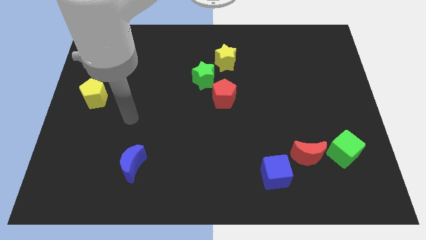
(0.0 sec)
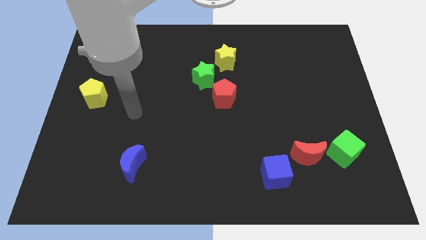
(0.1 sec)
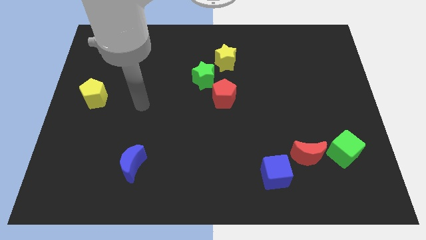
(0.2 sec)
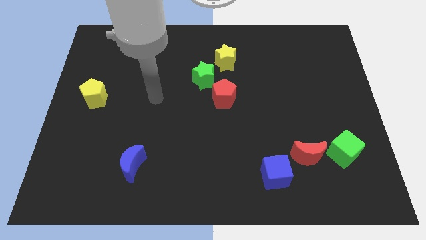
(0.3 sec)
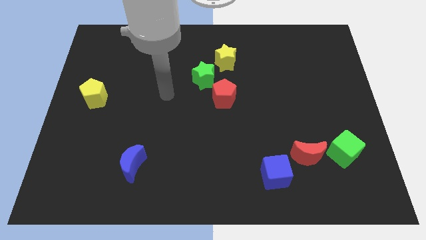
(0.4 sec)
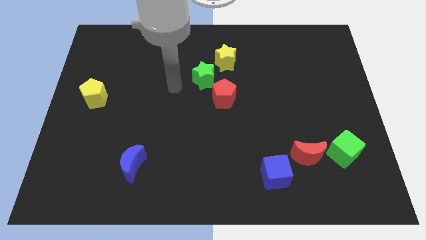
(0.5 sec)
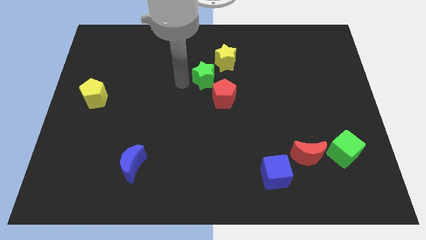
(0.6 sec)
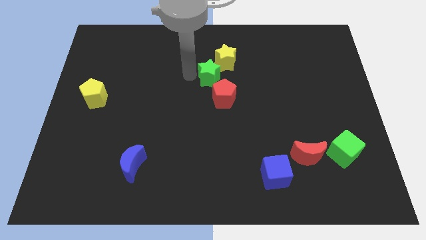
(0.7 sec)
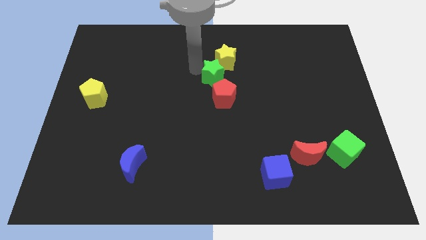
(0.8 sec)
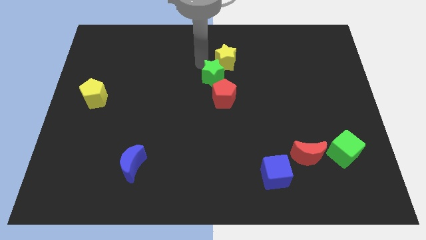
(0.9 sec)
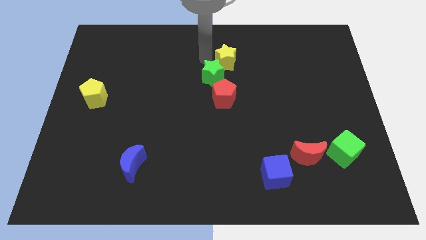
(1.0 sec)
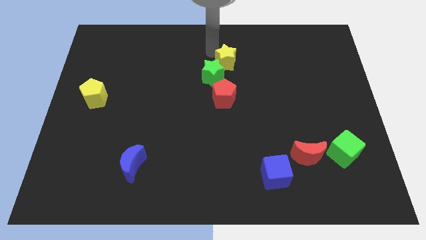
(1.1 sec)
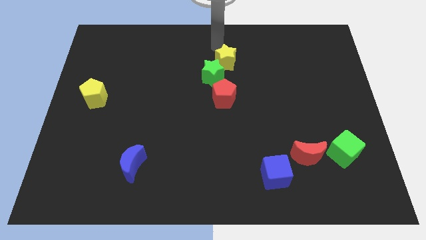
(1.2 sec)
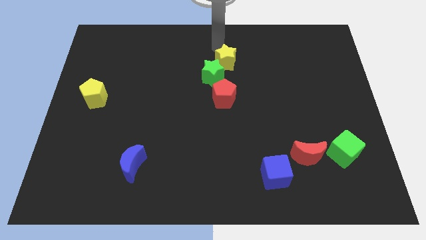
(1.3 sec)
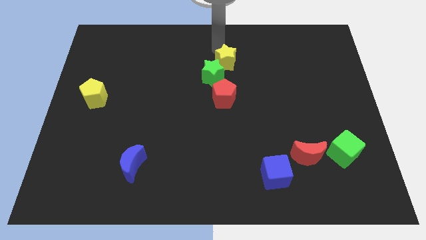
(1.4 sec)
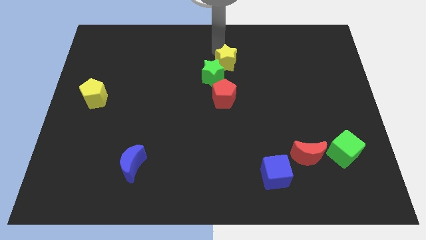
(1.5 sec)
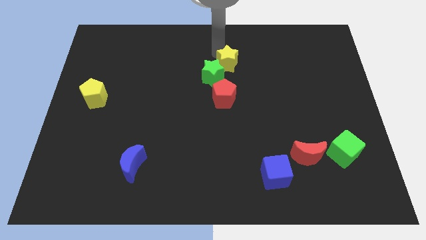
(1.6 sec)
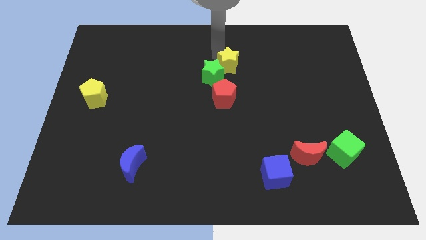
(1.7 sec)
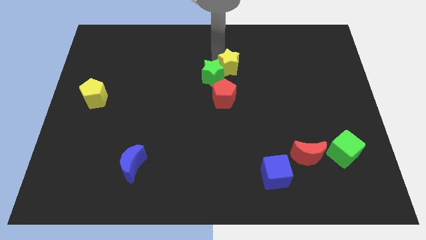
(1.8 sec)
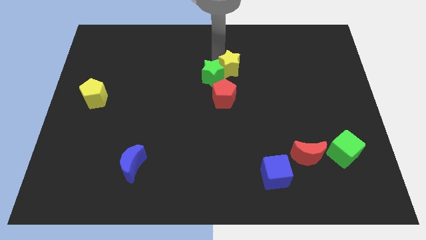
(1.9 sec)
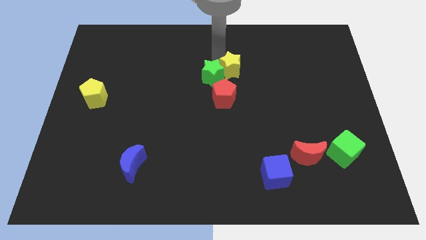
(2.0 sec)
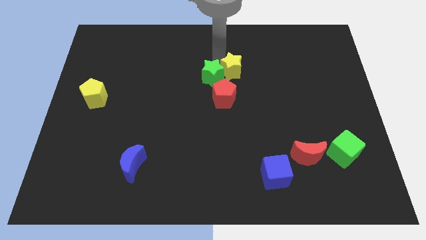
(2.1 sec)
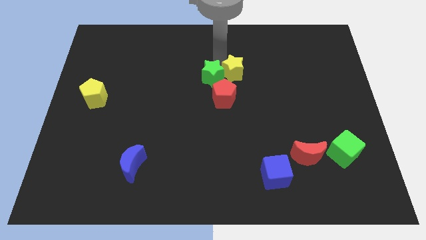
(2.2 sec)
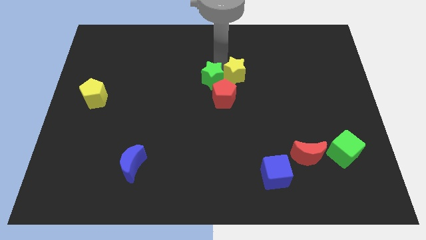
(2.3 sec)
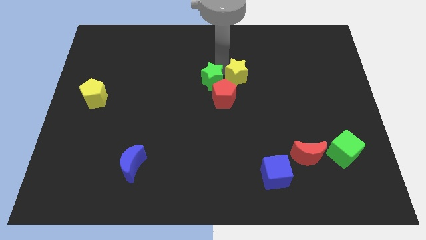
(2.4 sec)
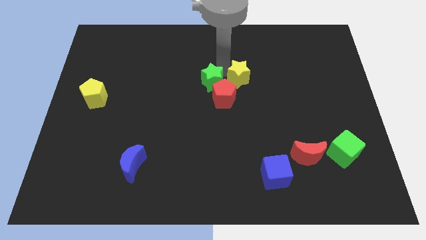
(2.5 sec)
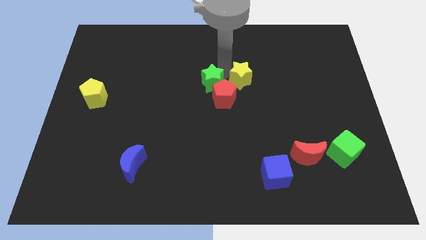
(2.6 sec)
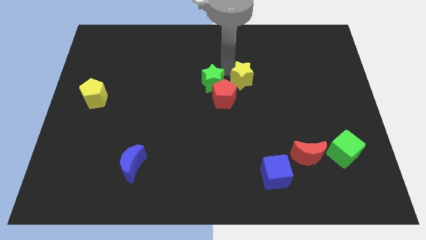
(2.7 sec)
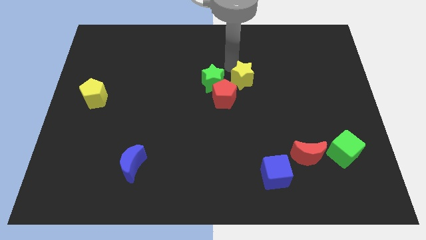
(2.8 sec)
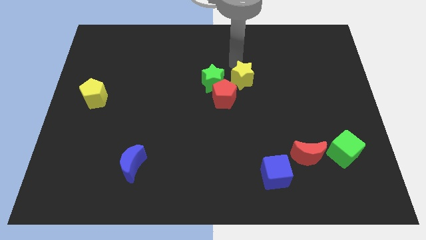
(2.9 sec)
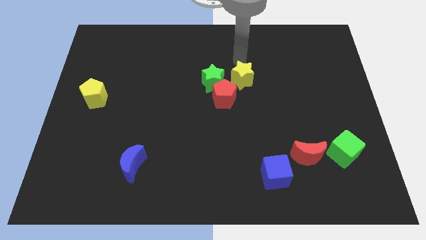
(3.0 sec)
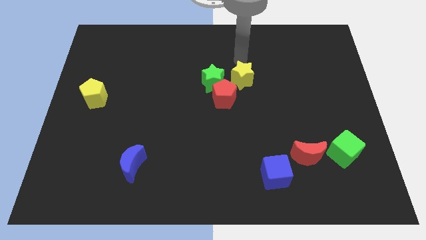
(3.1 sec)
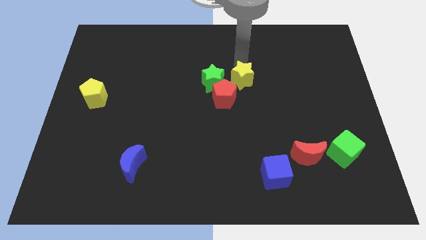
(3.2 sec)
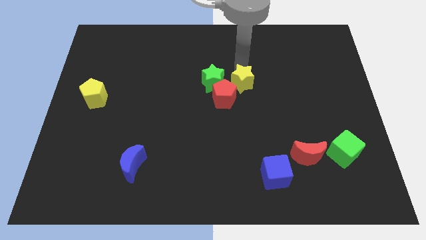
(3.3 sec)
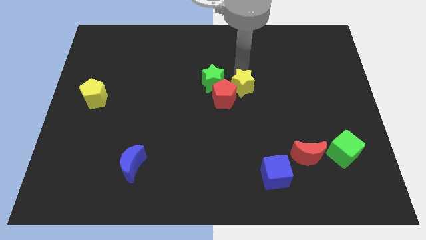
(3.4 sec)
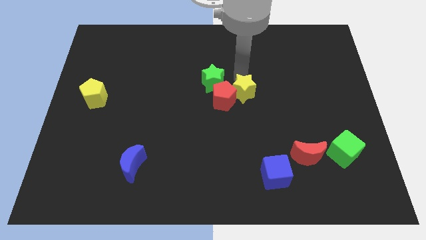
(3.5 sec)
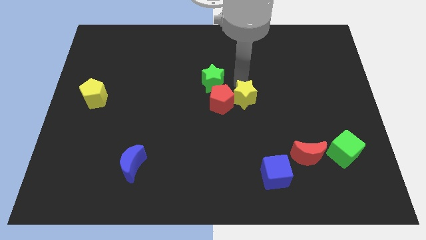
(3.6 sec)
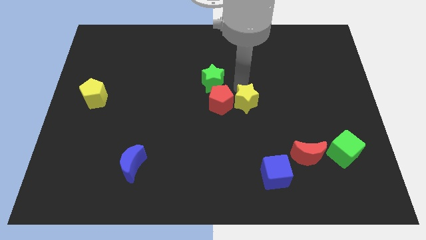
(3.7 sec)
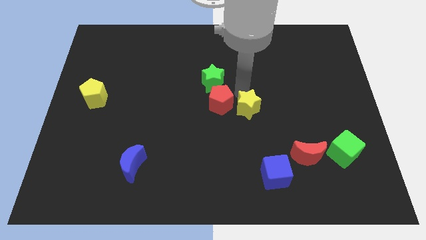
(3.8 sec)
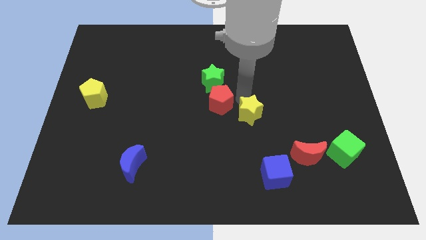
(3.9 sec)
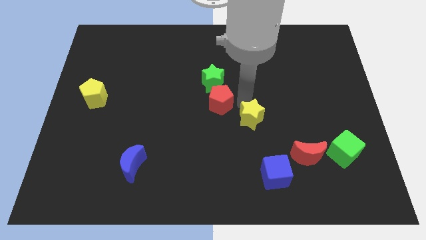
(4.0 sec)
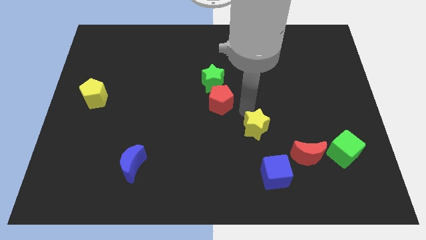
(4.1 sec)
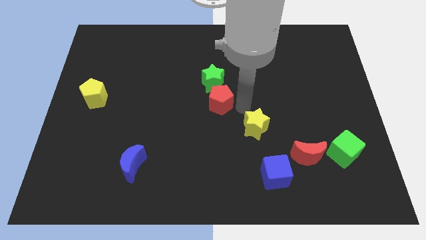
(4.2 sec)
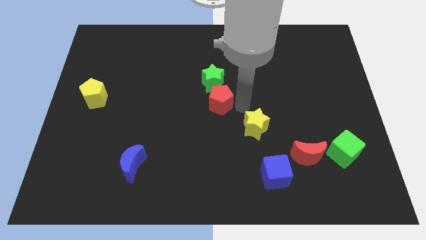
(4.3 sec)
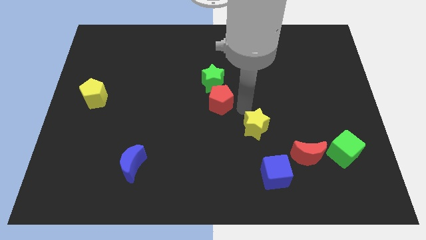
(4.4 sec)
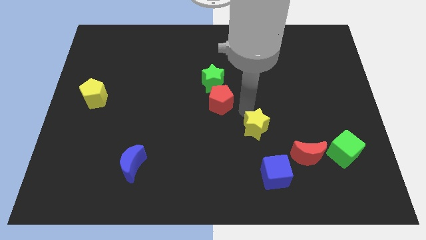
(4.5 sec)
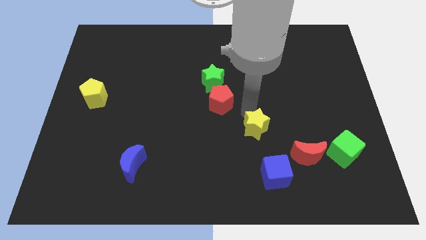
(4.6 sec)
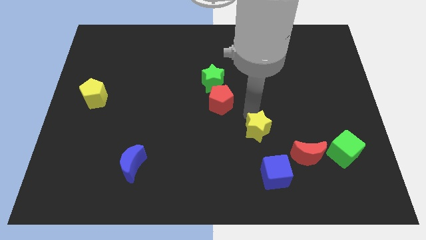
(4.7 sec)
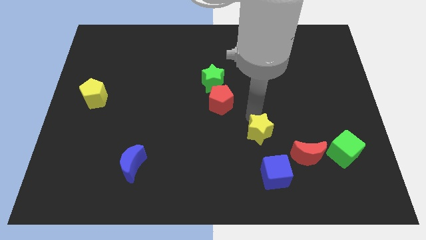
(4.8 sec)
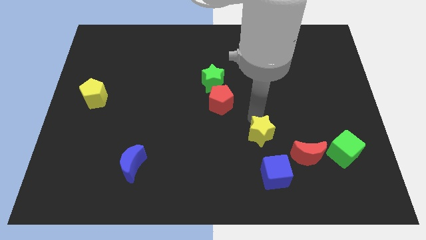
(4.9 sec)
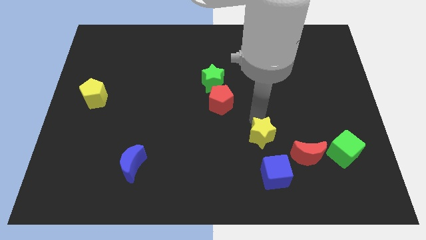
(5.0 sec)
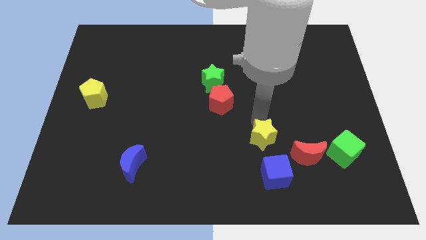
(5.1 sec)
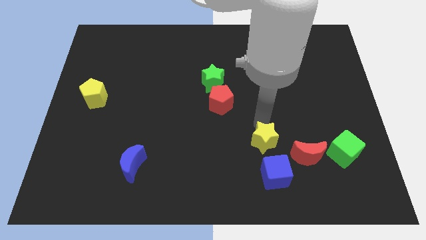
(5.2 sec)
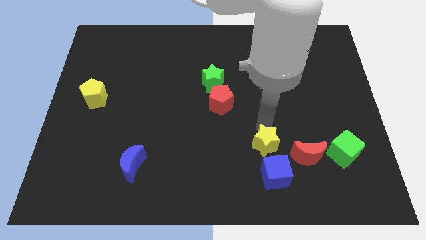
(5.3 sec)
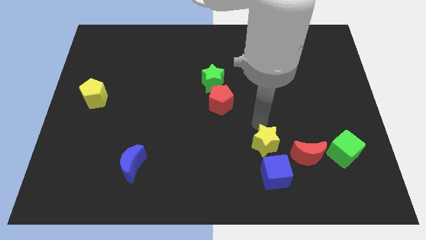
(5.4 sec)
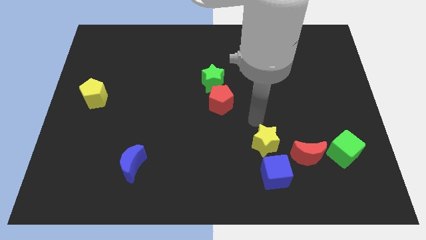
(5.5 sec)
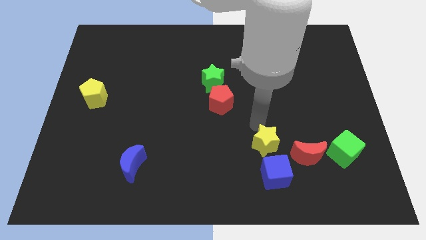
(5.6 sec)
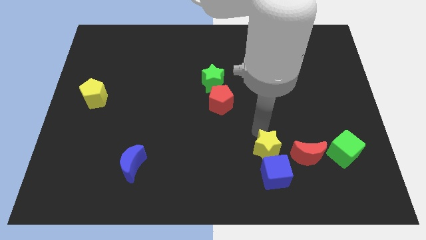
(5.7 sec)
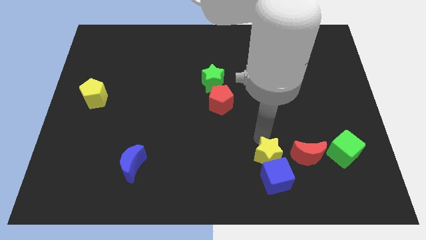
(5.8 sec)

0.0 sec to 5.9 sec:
put the yellow star close to the blue cube

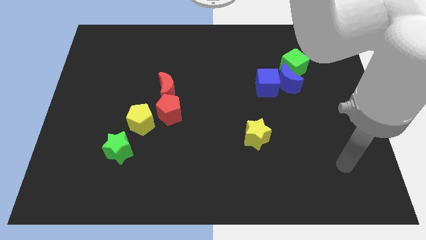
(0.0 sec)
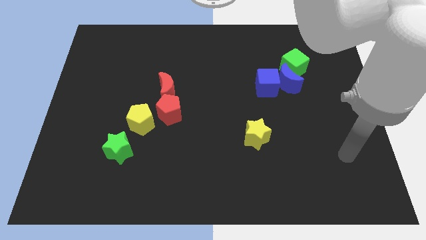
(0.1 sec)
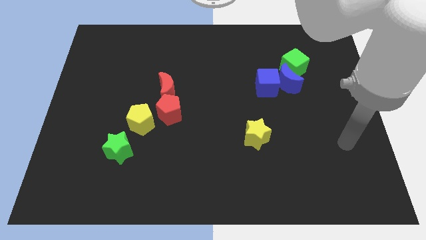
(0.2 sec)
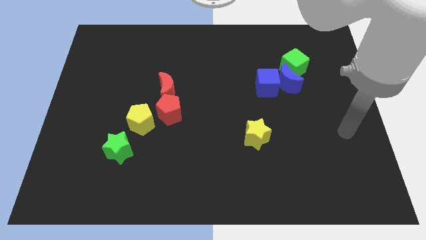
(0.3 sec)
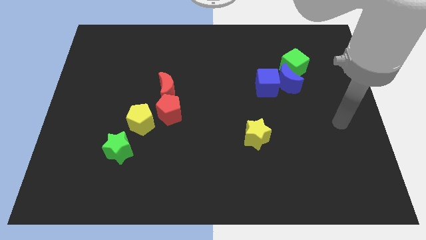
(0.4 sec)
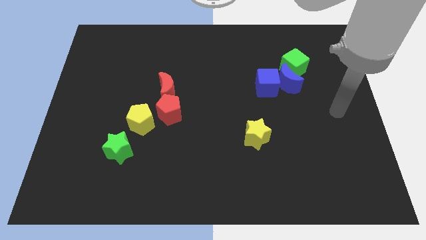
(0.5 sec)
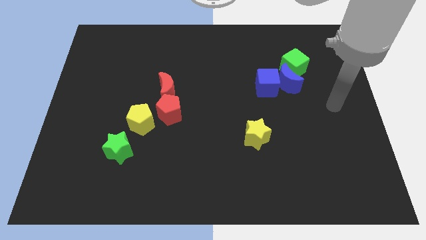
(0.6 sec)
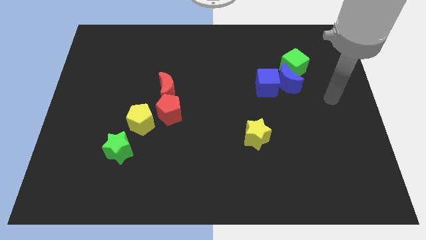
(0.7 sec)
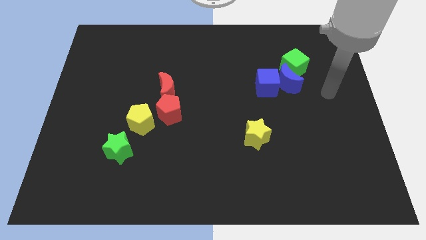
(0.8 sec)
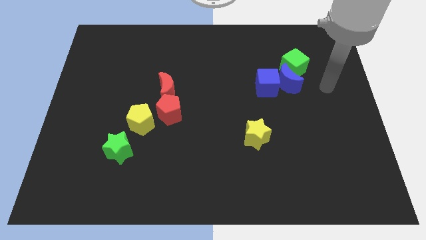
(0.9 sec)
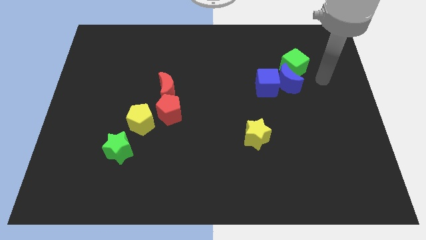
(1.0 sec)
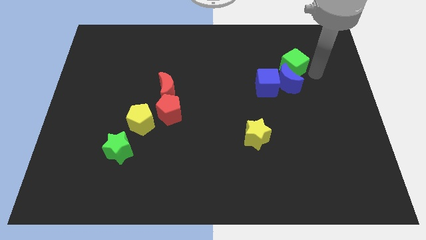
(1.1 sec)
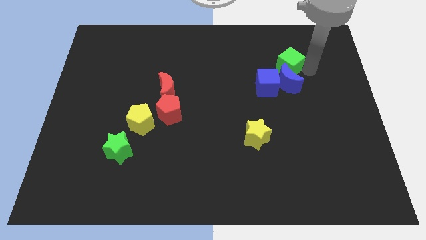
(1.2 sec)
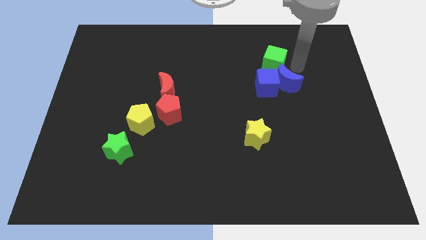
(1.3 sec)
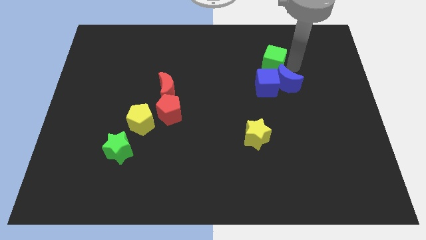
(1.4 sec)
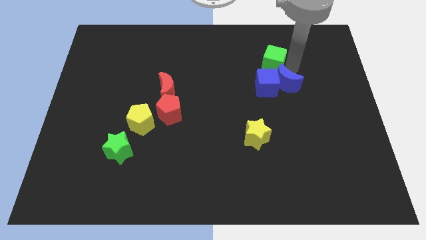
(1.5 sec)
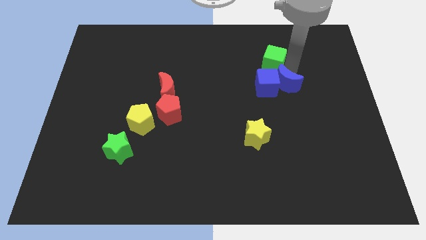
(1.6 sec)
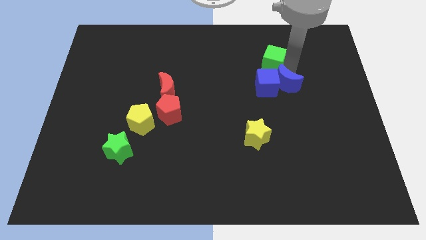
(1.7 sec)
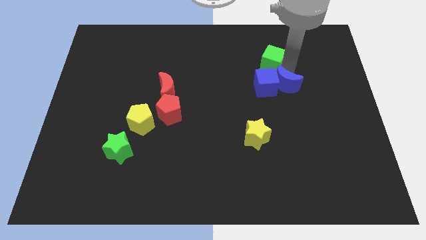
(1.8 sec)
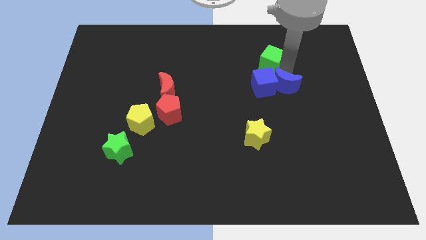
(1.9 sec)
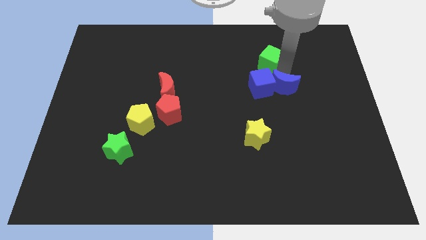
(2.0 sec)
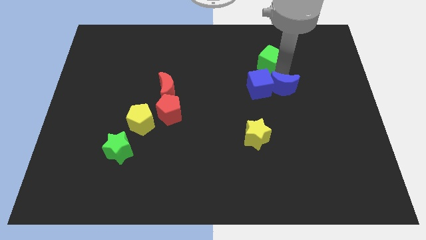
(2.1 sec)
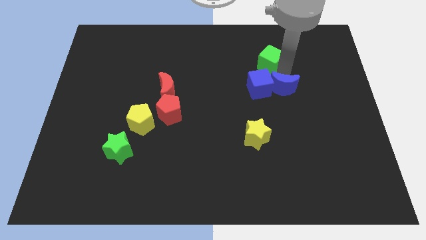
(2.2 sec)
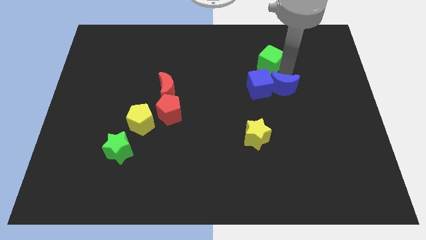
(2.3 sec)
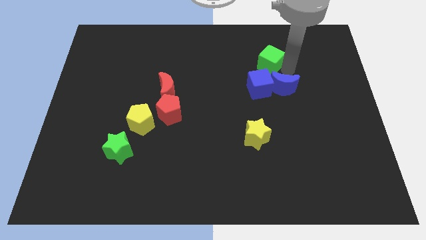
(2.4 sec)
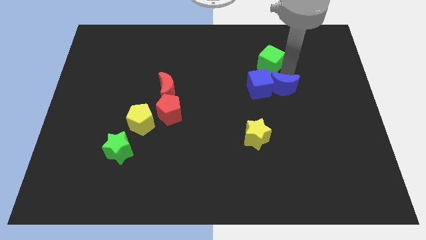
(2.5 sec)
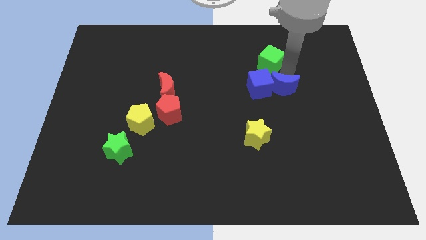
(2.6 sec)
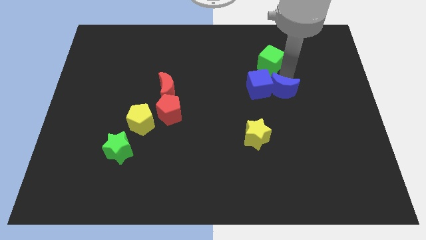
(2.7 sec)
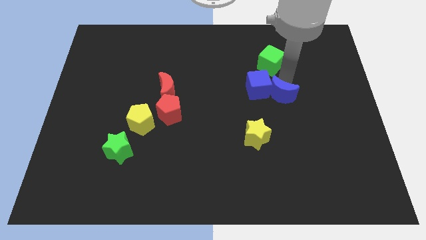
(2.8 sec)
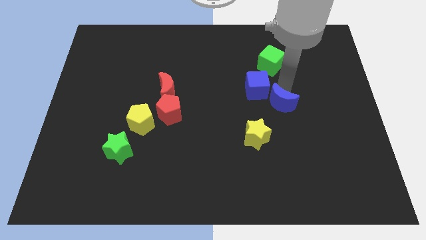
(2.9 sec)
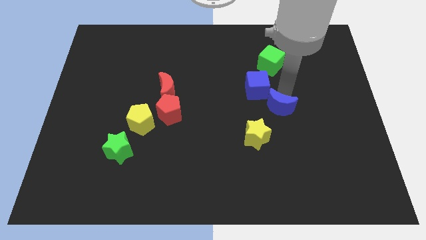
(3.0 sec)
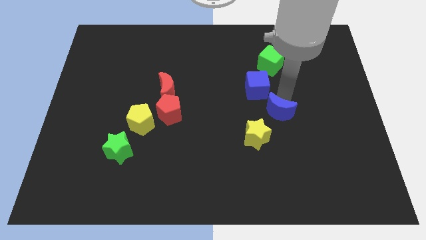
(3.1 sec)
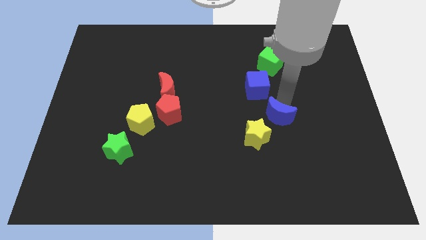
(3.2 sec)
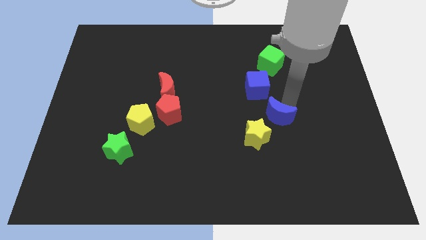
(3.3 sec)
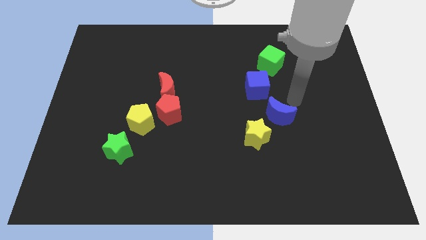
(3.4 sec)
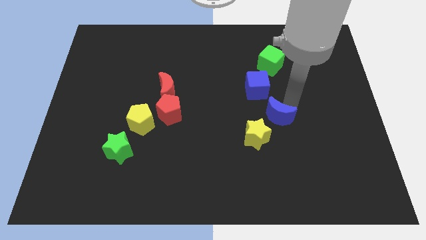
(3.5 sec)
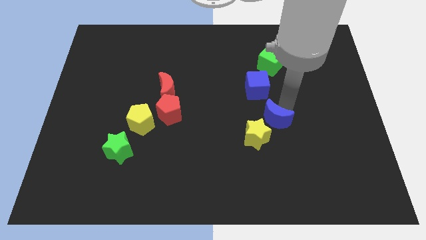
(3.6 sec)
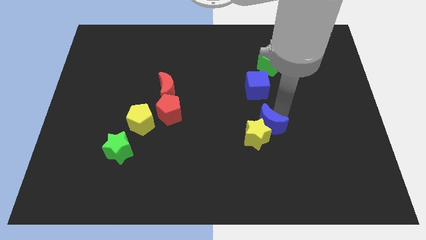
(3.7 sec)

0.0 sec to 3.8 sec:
slide the blue moon towards the yellow star
